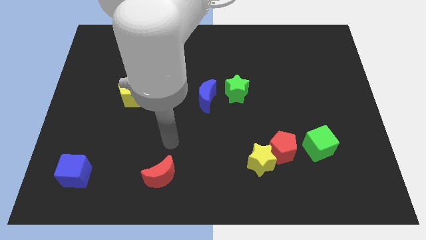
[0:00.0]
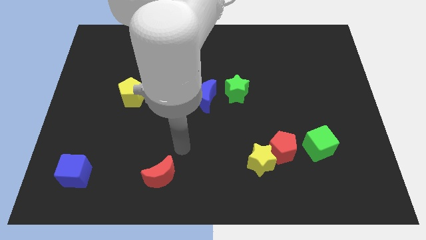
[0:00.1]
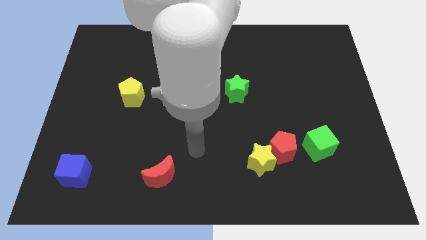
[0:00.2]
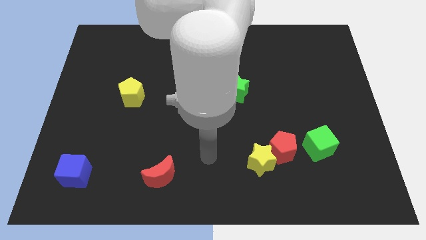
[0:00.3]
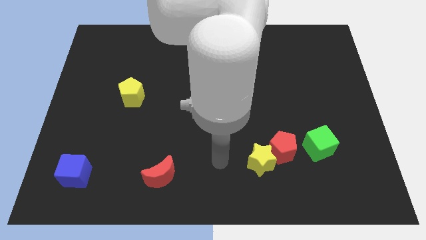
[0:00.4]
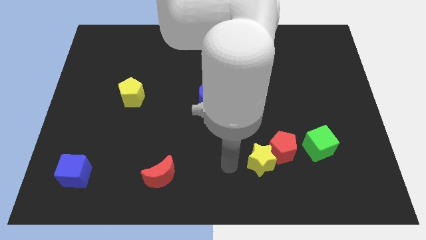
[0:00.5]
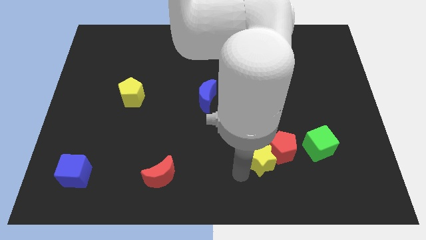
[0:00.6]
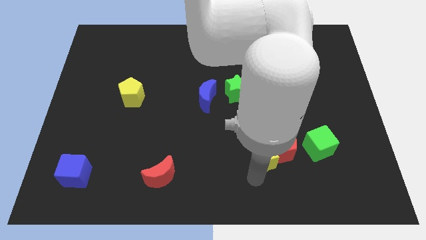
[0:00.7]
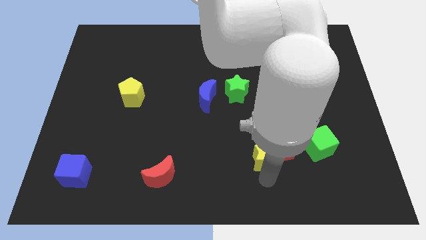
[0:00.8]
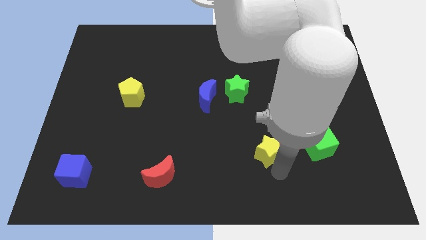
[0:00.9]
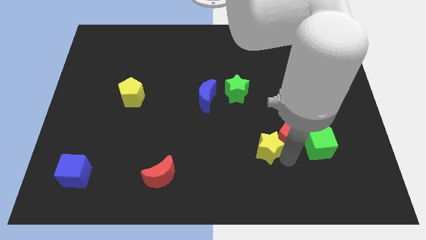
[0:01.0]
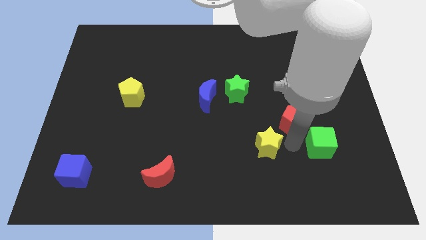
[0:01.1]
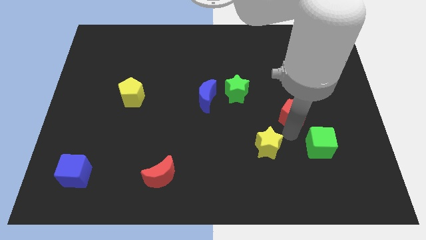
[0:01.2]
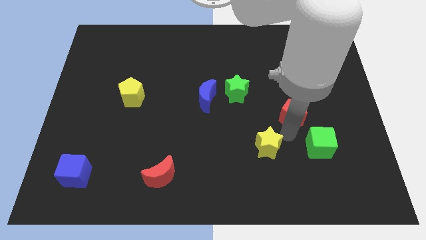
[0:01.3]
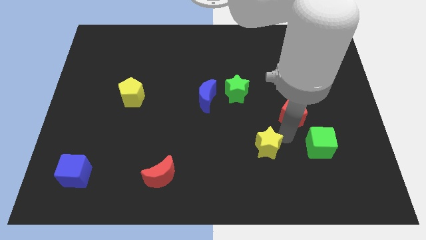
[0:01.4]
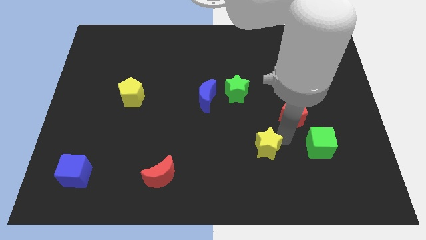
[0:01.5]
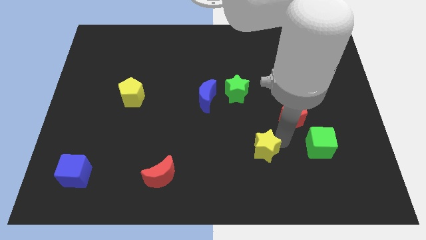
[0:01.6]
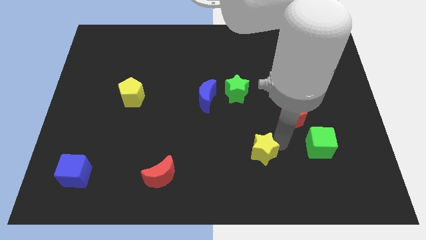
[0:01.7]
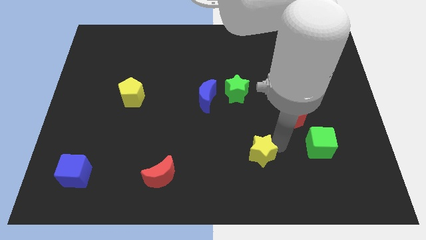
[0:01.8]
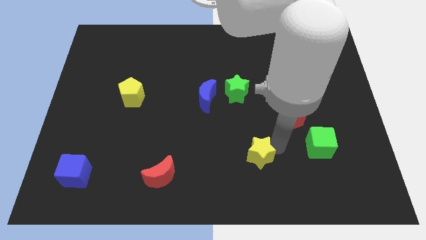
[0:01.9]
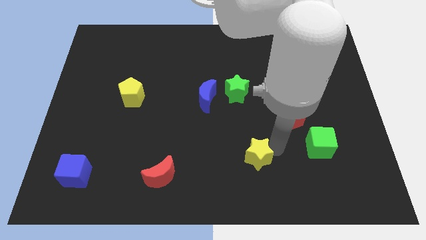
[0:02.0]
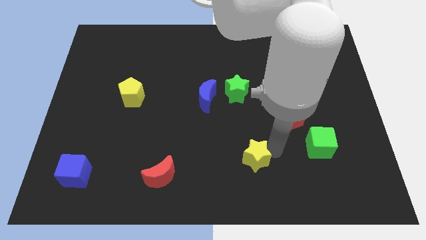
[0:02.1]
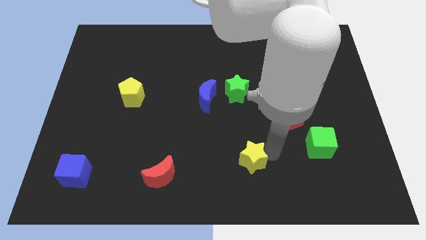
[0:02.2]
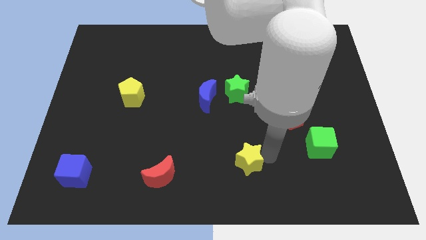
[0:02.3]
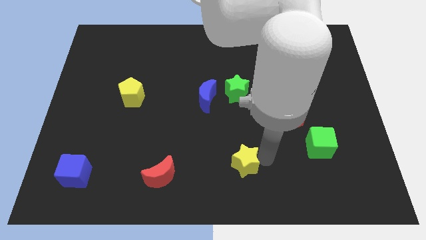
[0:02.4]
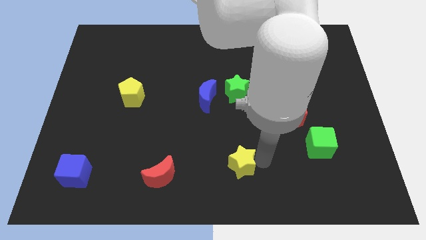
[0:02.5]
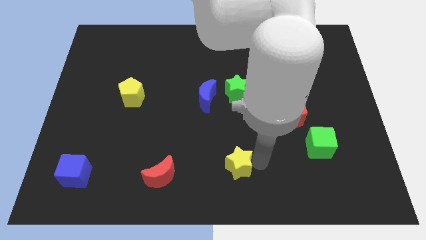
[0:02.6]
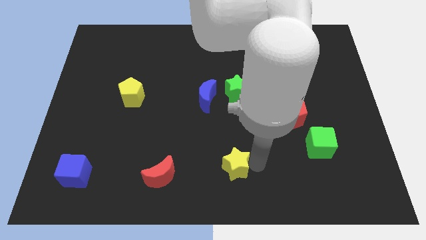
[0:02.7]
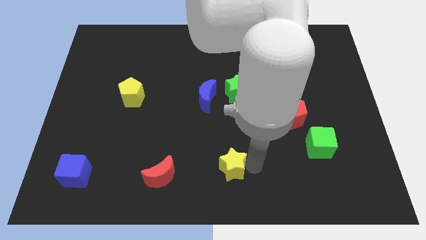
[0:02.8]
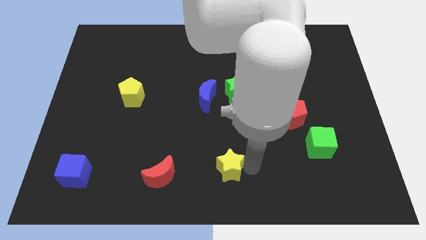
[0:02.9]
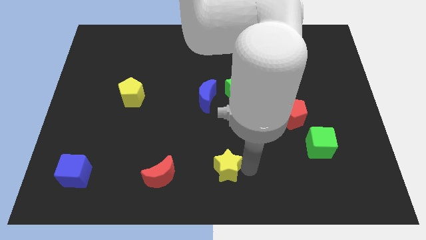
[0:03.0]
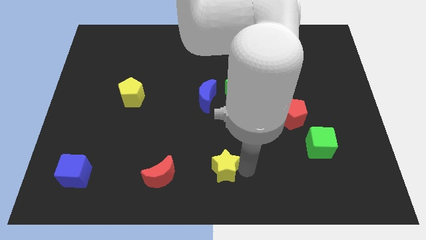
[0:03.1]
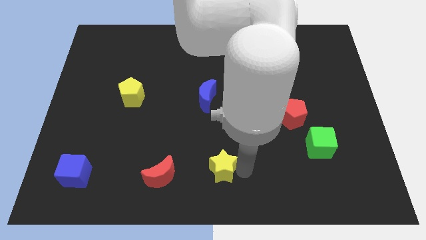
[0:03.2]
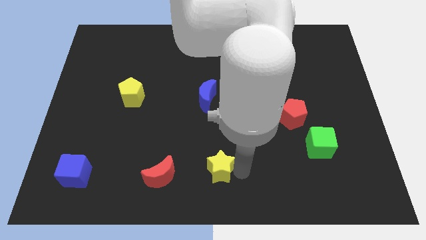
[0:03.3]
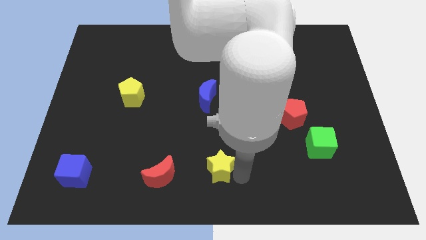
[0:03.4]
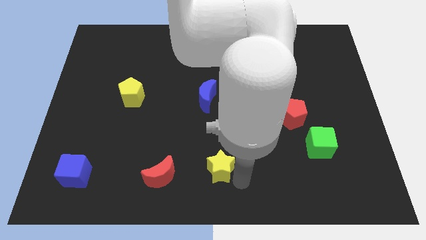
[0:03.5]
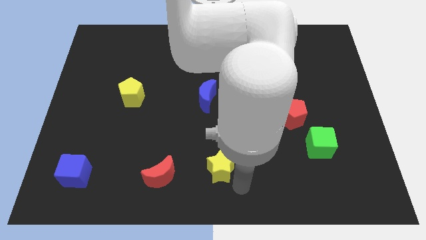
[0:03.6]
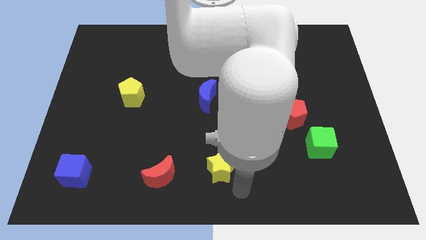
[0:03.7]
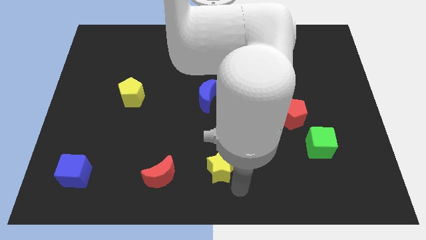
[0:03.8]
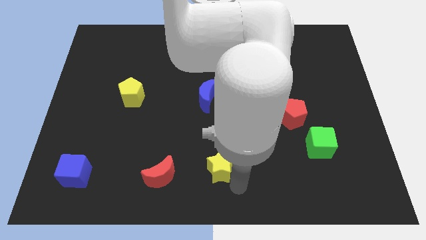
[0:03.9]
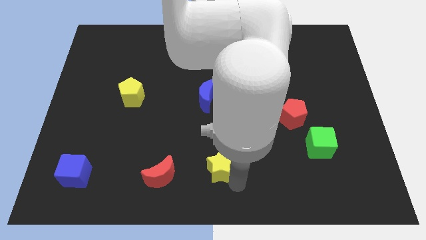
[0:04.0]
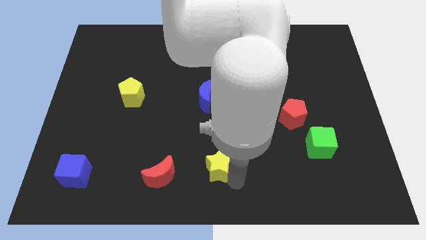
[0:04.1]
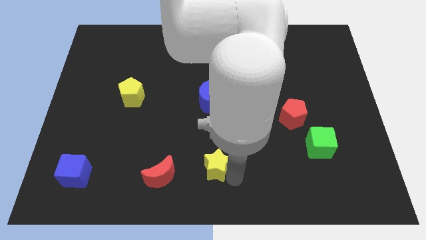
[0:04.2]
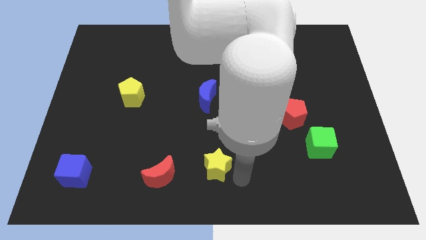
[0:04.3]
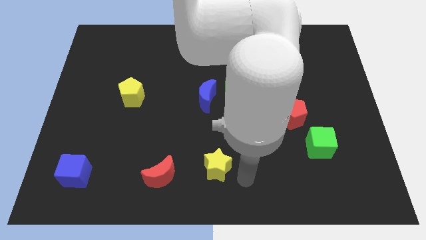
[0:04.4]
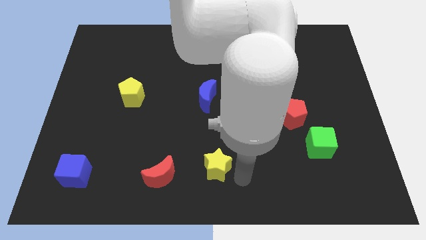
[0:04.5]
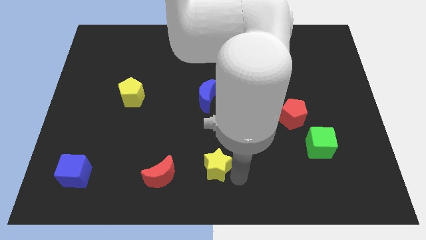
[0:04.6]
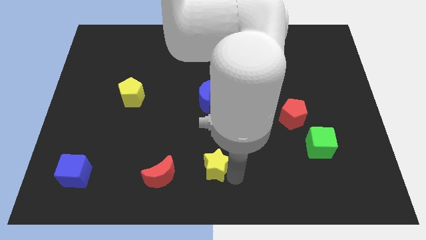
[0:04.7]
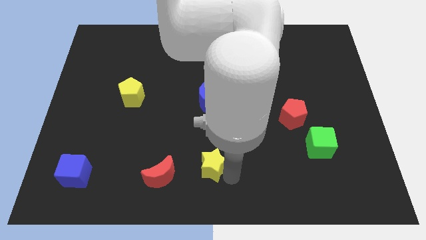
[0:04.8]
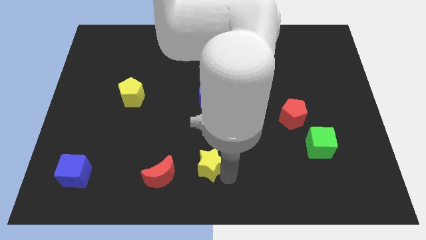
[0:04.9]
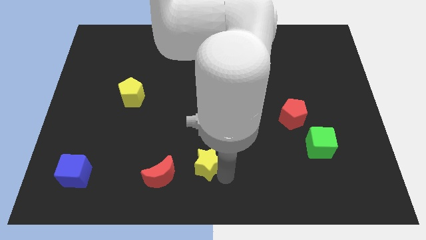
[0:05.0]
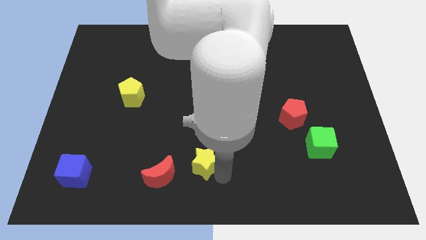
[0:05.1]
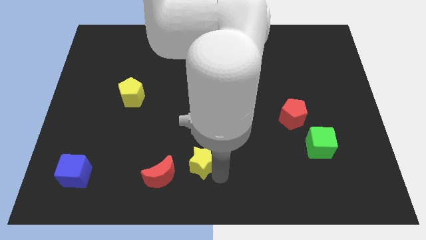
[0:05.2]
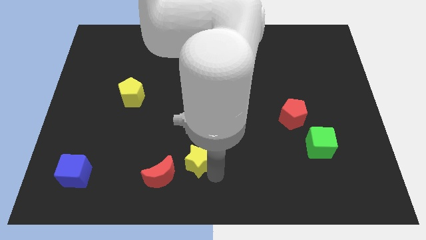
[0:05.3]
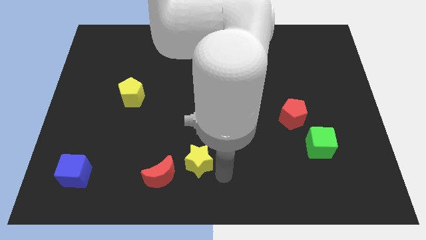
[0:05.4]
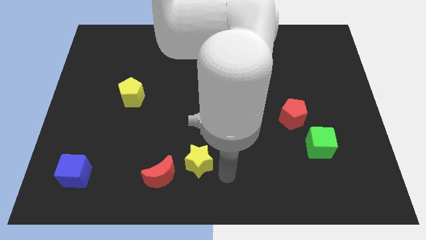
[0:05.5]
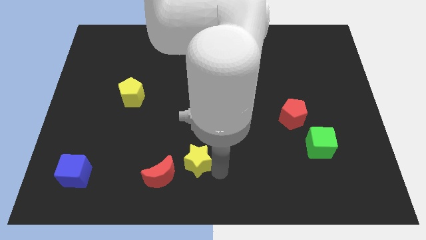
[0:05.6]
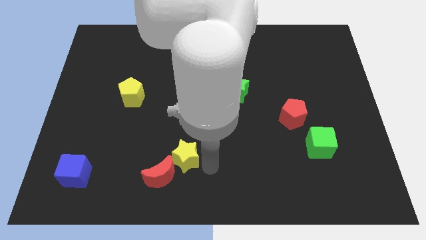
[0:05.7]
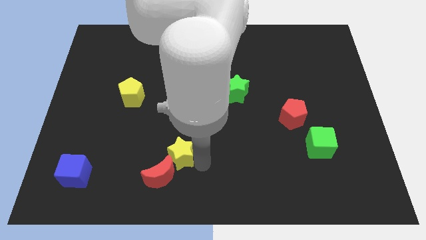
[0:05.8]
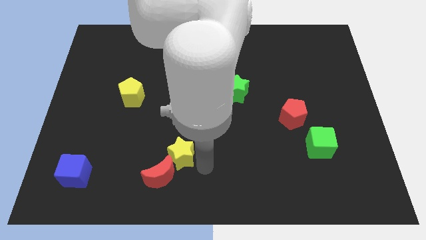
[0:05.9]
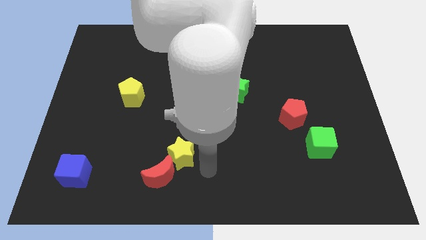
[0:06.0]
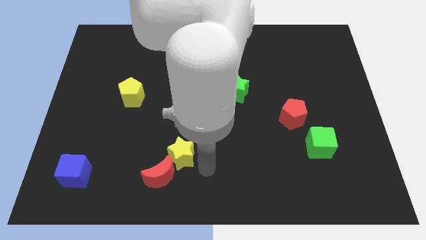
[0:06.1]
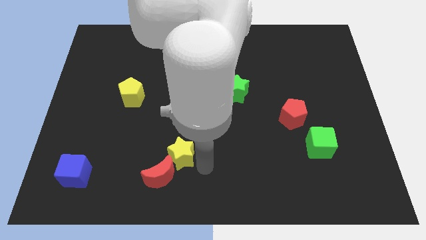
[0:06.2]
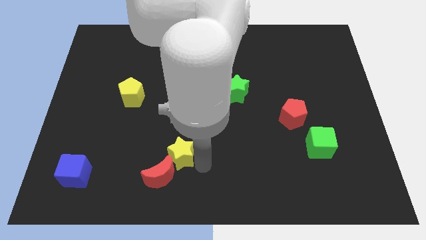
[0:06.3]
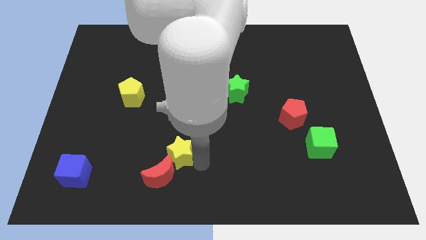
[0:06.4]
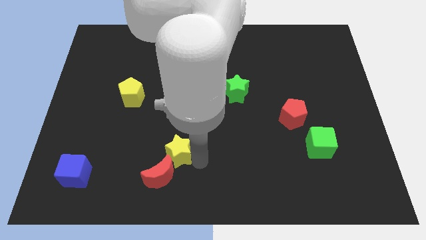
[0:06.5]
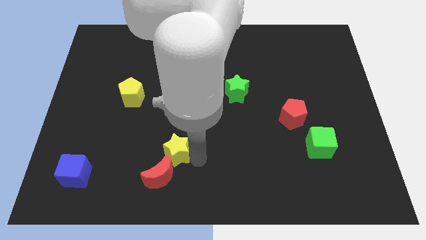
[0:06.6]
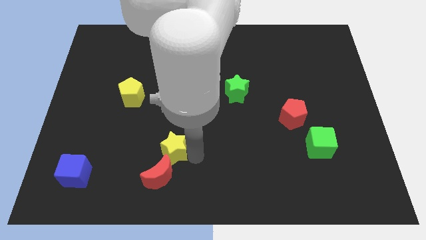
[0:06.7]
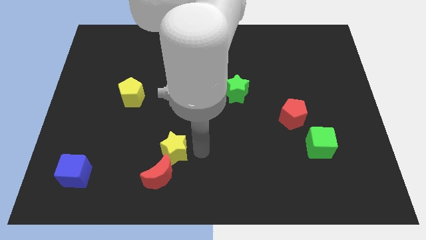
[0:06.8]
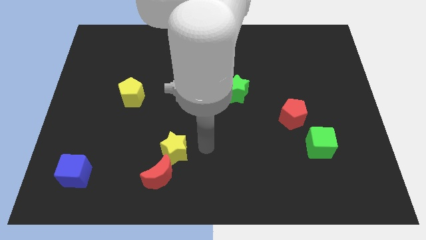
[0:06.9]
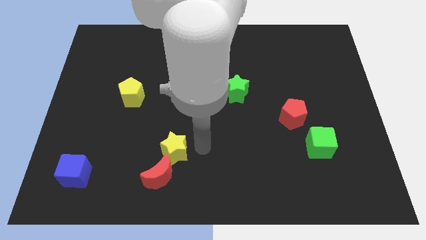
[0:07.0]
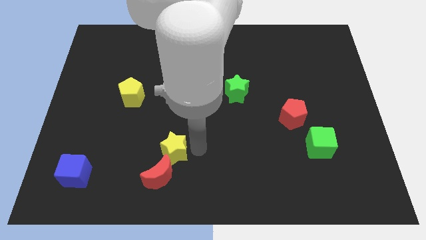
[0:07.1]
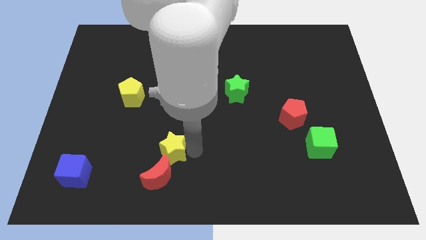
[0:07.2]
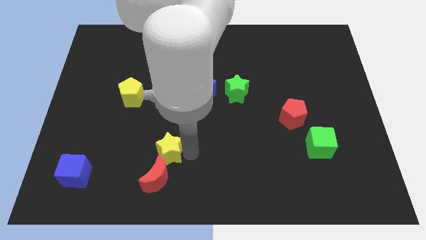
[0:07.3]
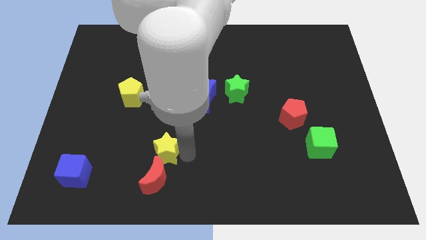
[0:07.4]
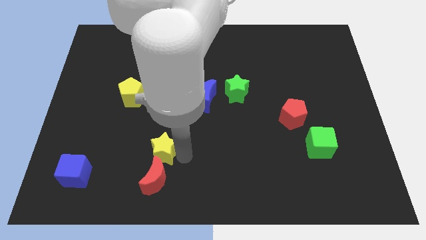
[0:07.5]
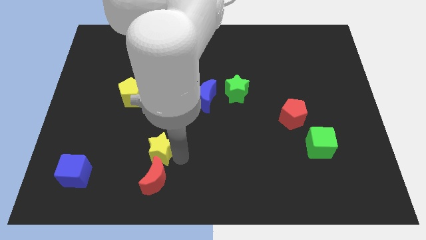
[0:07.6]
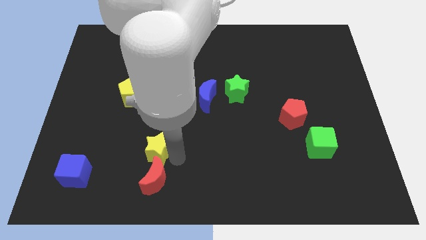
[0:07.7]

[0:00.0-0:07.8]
slide the yellow star to the top left of the red moon
